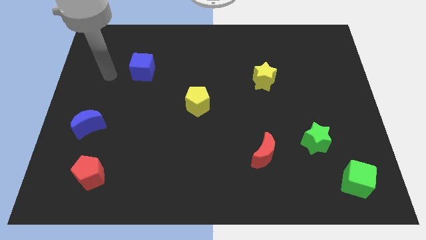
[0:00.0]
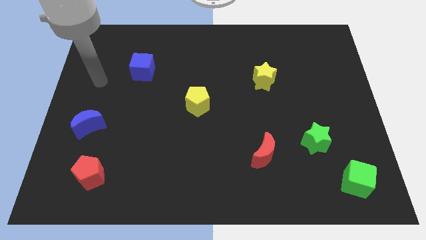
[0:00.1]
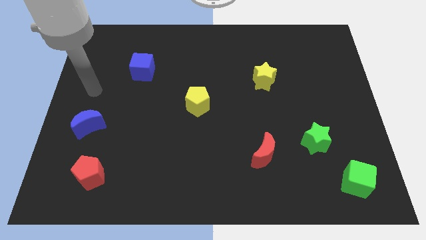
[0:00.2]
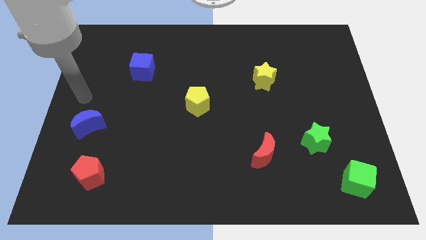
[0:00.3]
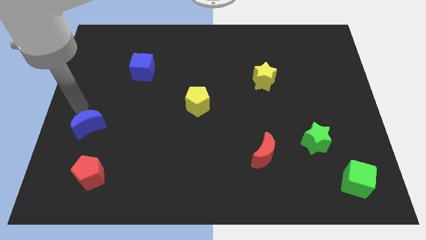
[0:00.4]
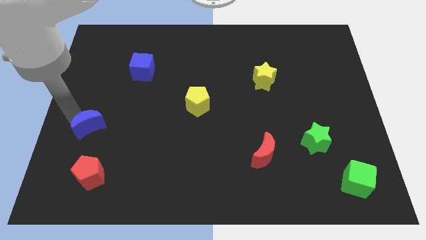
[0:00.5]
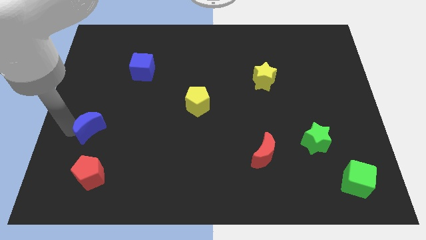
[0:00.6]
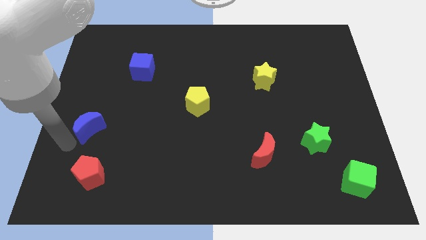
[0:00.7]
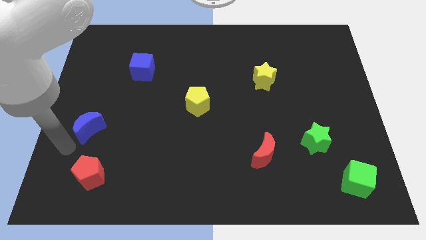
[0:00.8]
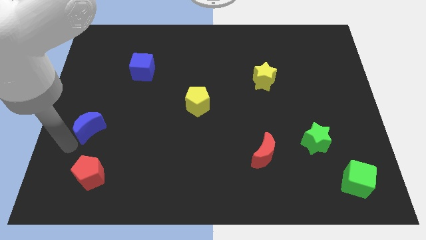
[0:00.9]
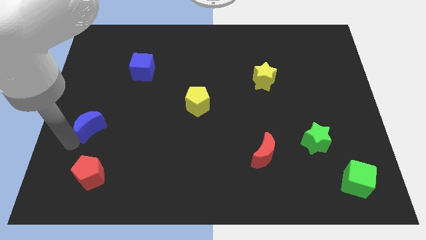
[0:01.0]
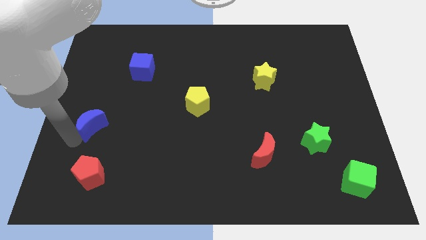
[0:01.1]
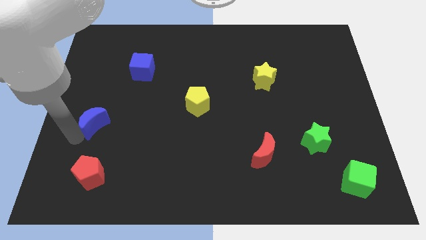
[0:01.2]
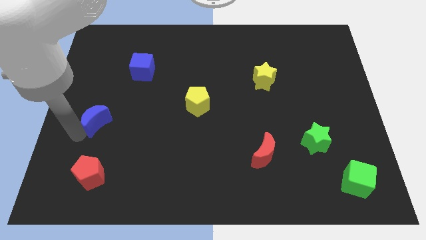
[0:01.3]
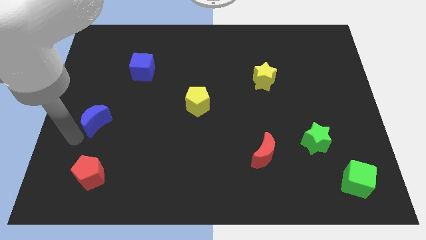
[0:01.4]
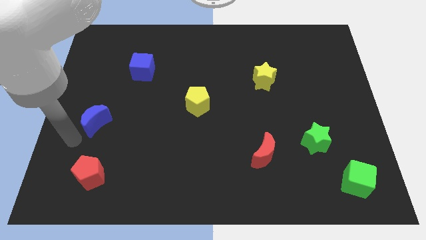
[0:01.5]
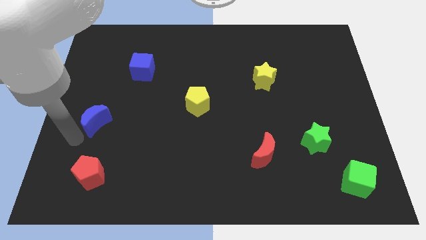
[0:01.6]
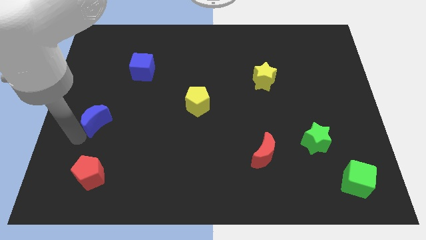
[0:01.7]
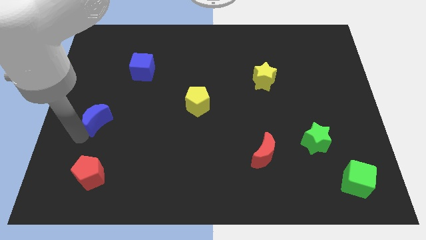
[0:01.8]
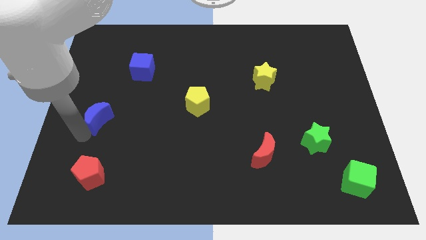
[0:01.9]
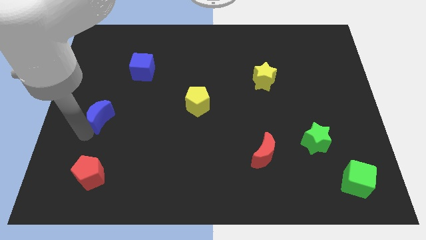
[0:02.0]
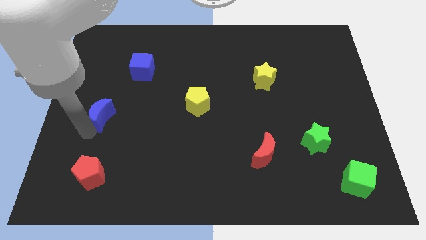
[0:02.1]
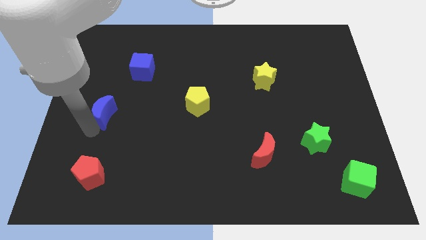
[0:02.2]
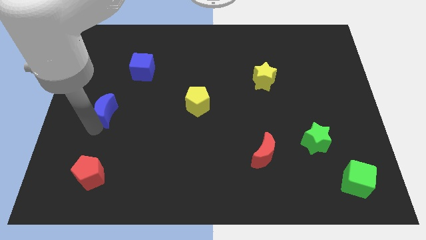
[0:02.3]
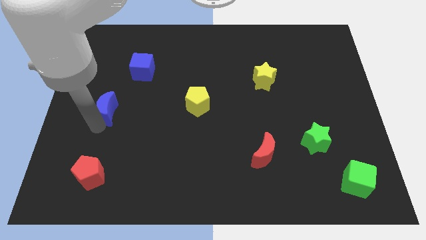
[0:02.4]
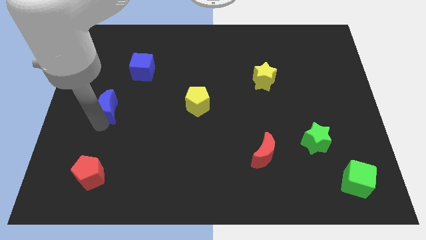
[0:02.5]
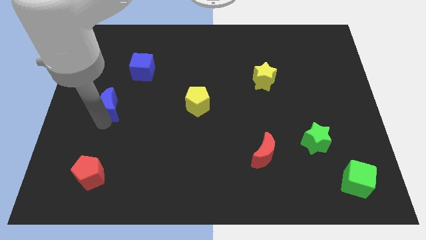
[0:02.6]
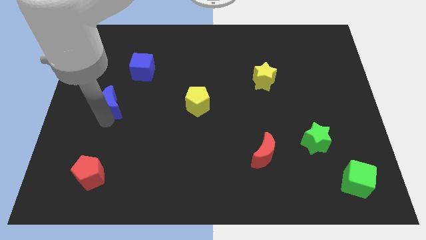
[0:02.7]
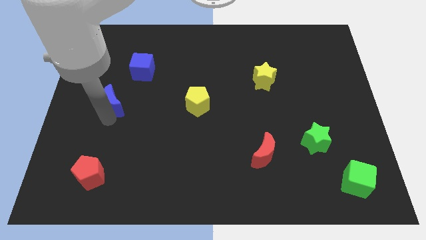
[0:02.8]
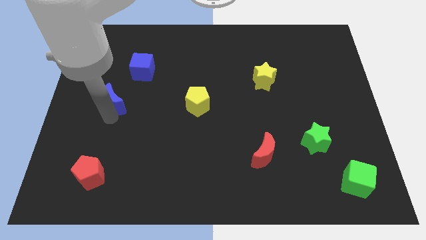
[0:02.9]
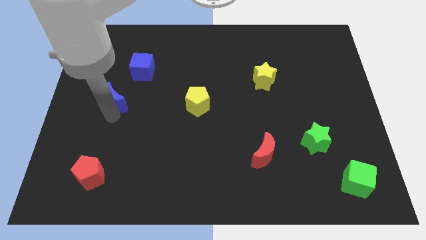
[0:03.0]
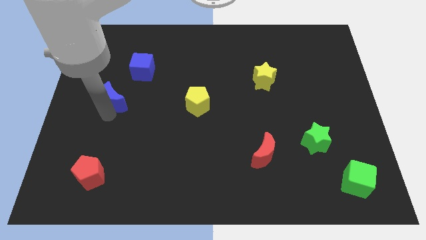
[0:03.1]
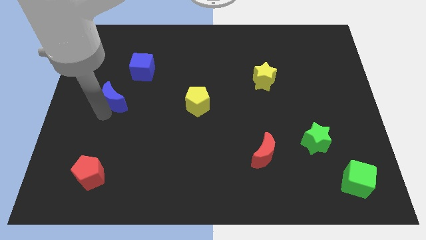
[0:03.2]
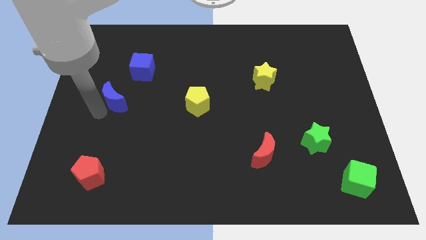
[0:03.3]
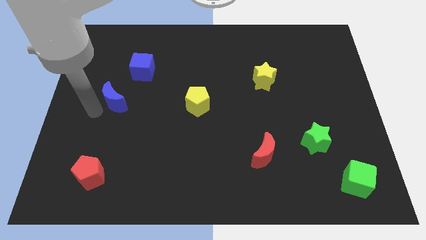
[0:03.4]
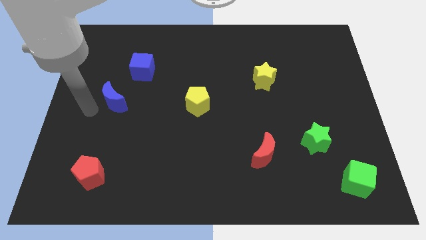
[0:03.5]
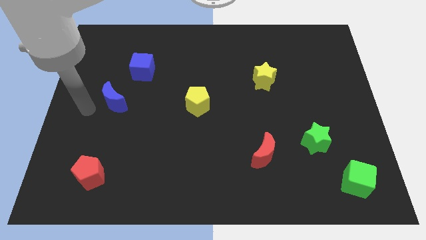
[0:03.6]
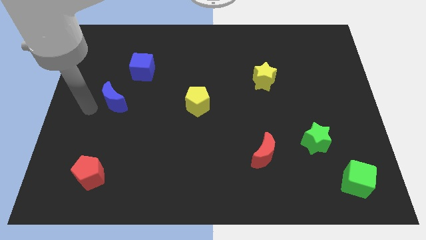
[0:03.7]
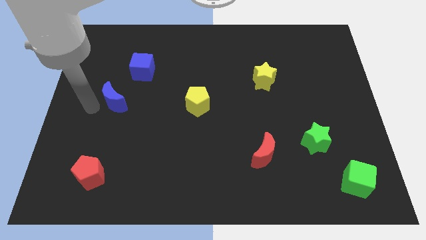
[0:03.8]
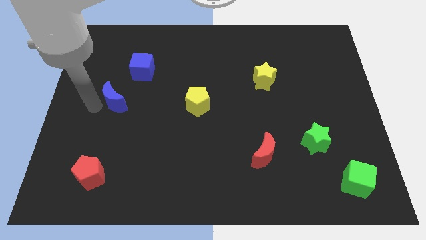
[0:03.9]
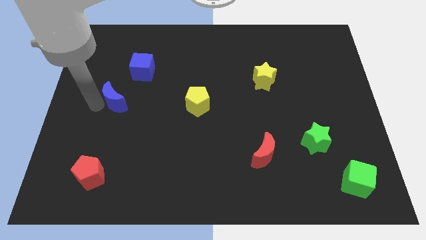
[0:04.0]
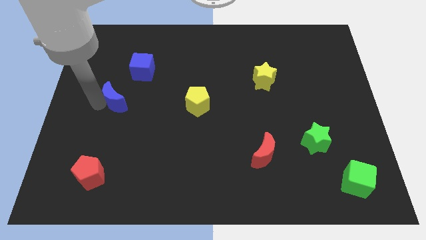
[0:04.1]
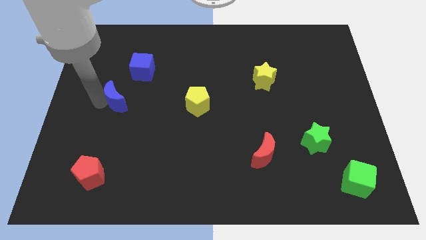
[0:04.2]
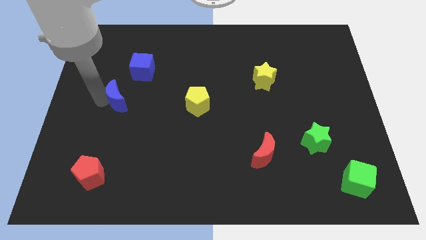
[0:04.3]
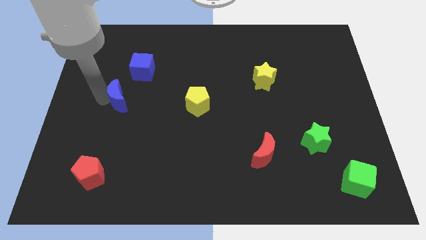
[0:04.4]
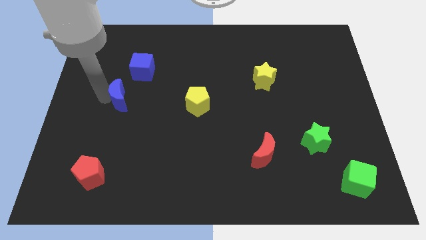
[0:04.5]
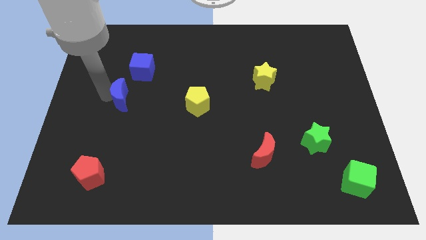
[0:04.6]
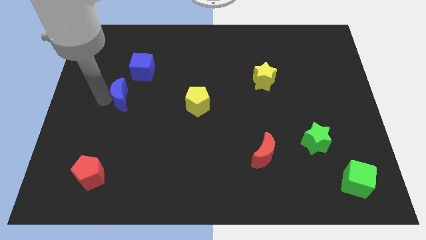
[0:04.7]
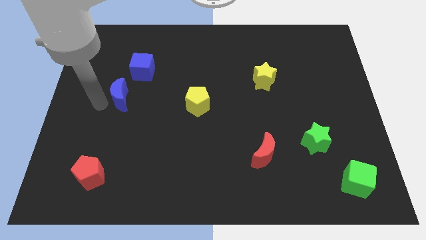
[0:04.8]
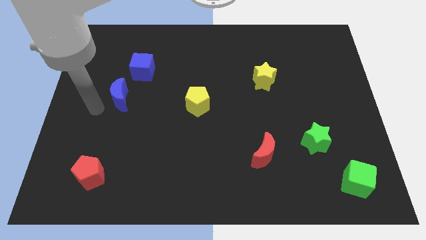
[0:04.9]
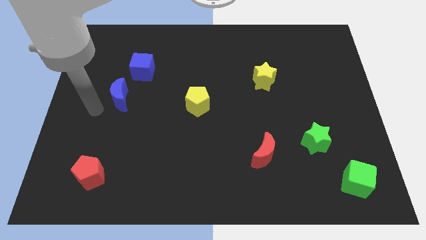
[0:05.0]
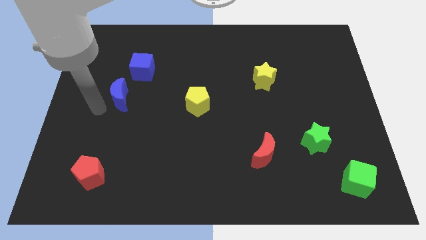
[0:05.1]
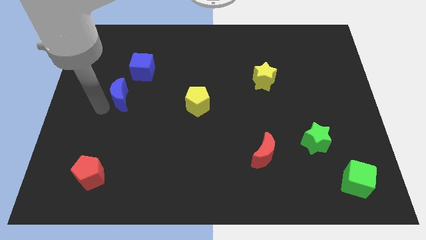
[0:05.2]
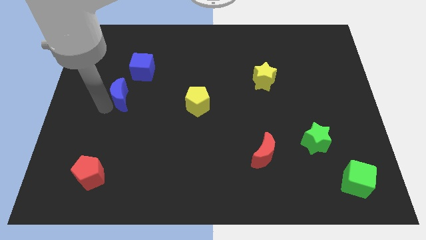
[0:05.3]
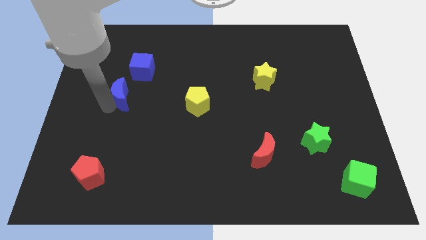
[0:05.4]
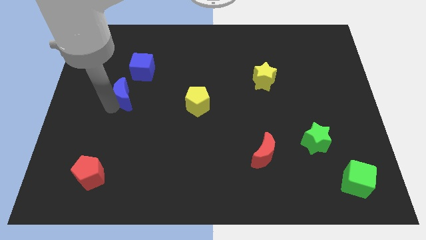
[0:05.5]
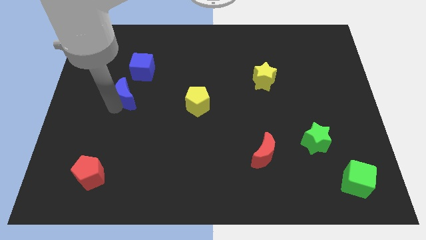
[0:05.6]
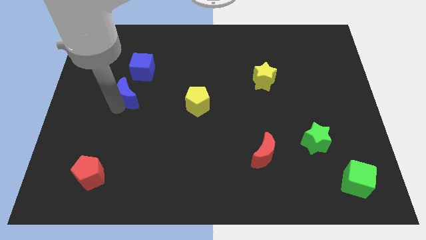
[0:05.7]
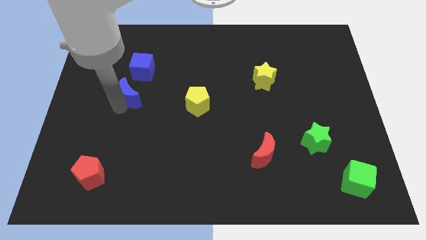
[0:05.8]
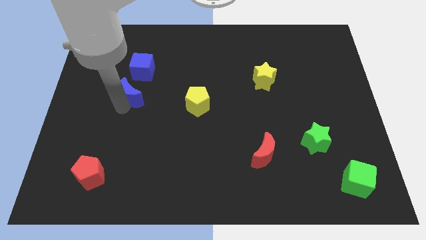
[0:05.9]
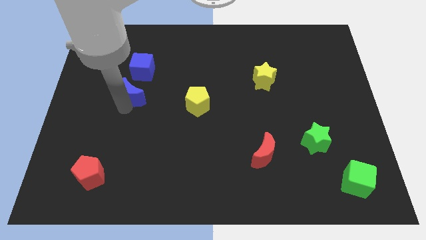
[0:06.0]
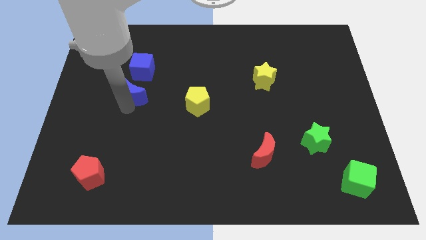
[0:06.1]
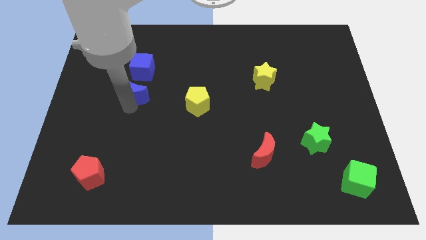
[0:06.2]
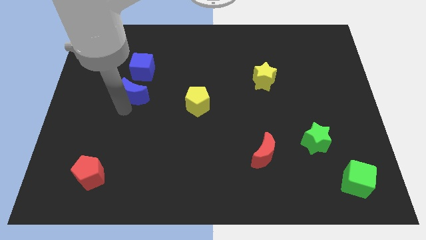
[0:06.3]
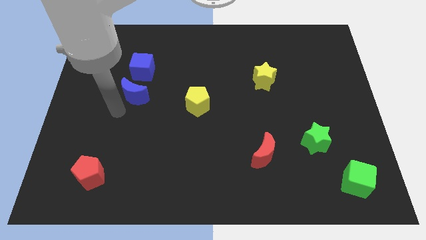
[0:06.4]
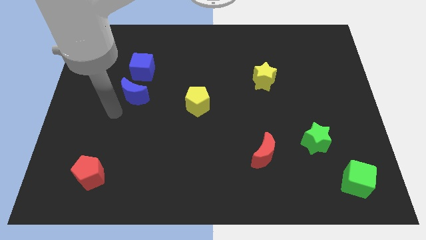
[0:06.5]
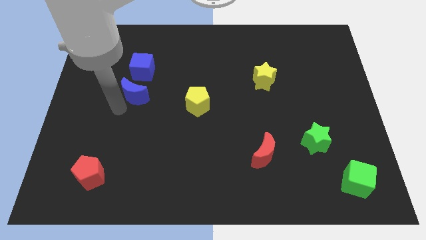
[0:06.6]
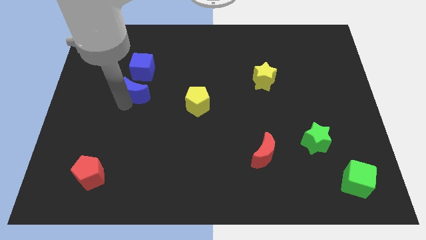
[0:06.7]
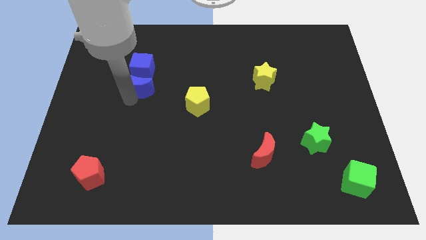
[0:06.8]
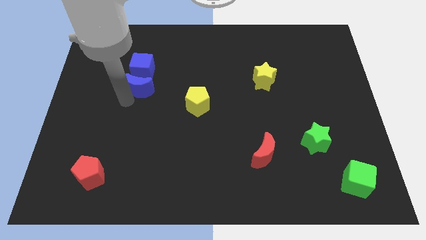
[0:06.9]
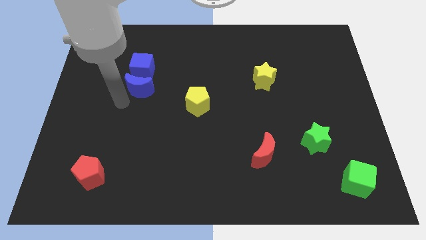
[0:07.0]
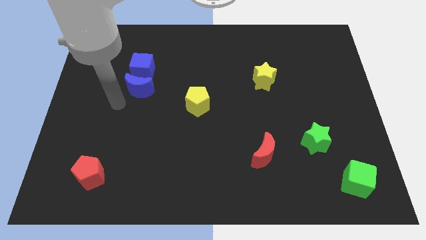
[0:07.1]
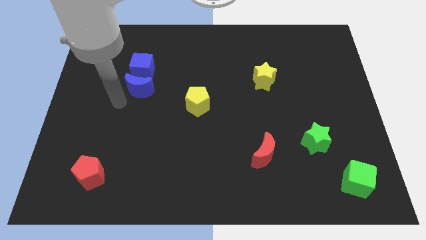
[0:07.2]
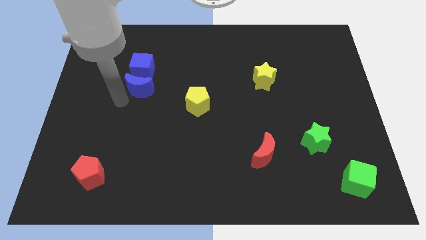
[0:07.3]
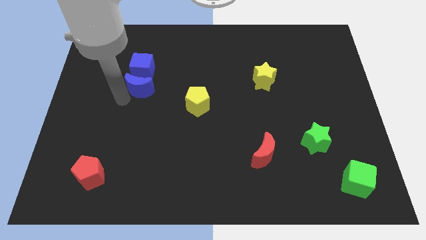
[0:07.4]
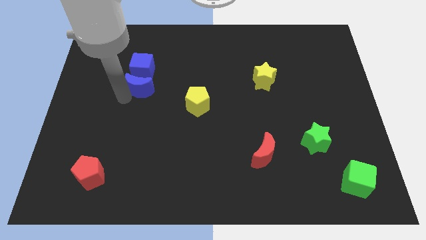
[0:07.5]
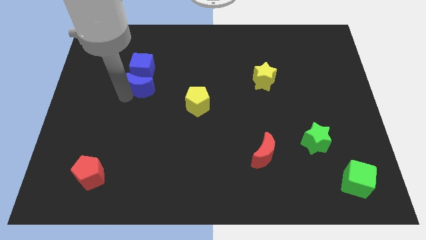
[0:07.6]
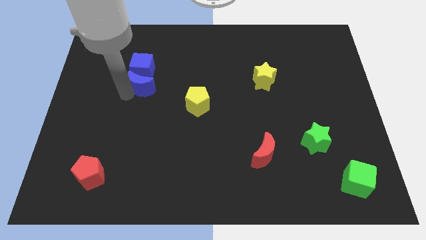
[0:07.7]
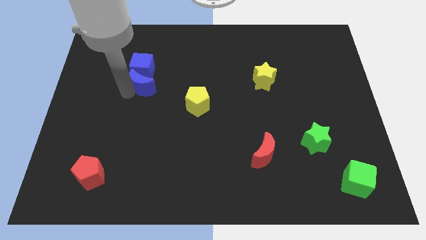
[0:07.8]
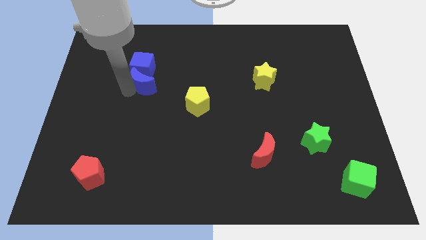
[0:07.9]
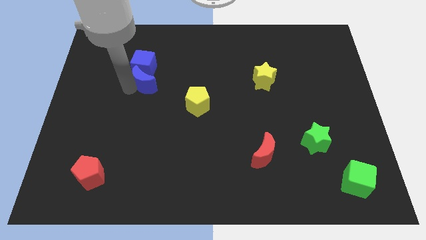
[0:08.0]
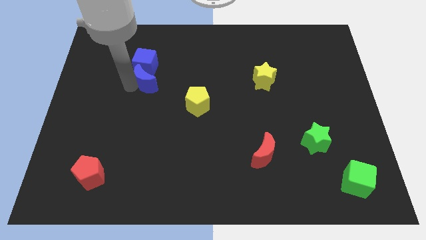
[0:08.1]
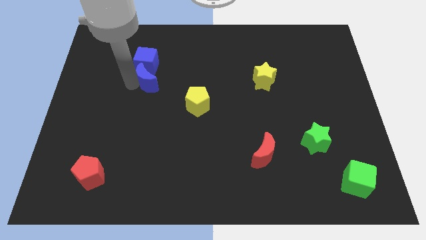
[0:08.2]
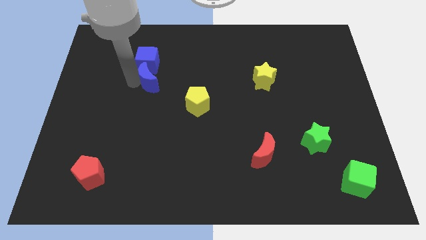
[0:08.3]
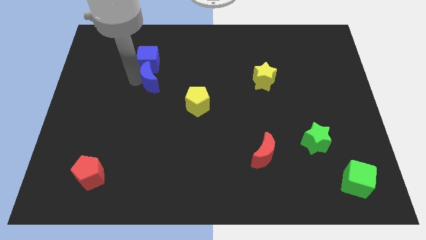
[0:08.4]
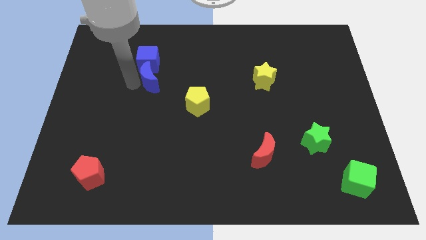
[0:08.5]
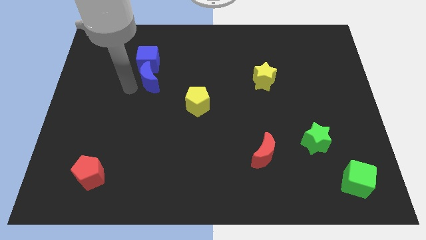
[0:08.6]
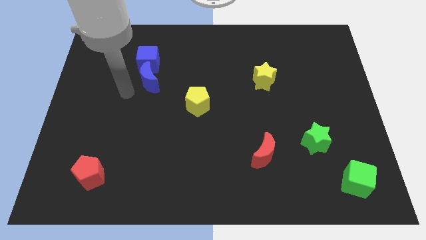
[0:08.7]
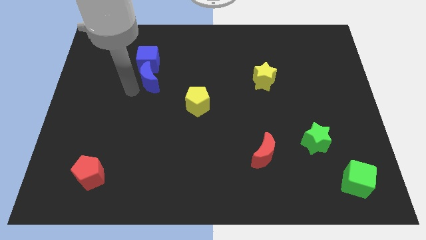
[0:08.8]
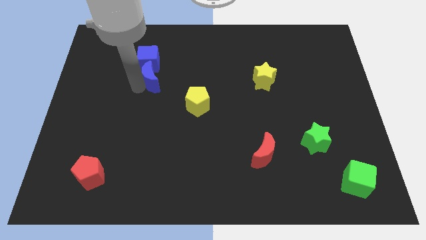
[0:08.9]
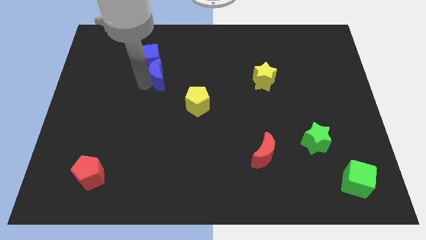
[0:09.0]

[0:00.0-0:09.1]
slide the blue moon upwards and to the right diagonally
